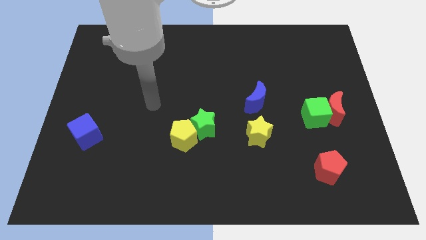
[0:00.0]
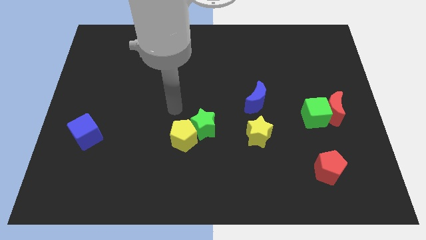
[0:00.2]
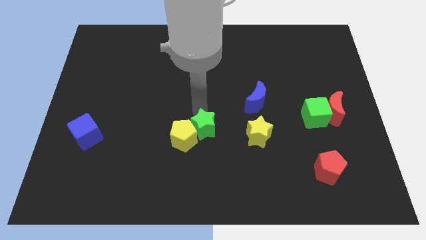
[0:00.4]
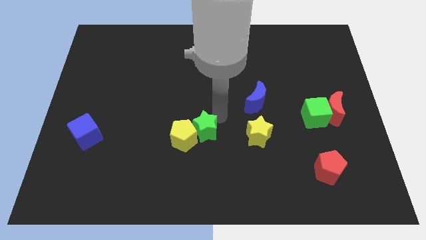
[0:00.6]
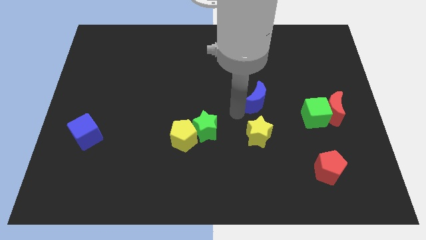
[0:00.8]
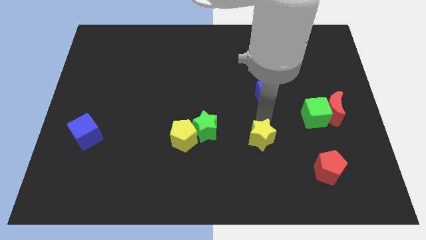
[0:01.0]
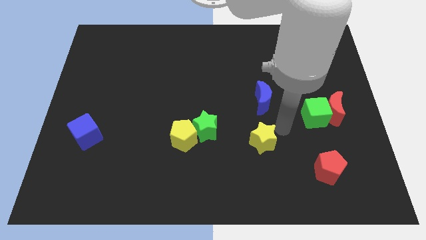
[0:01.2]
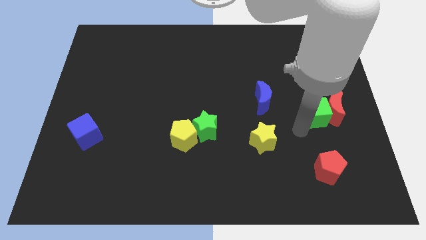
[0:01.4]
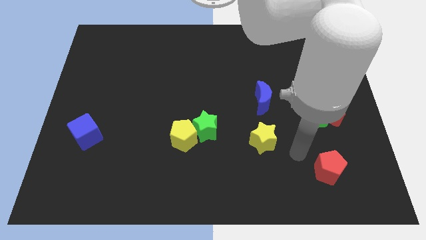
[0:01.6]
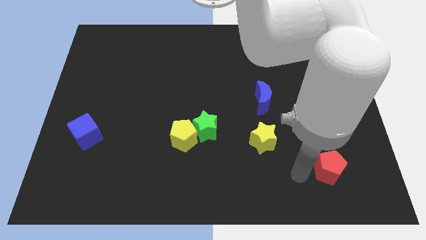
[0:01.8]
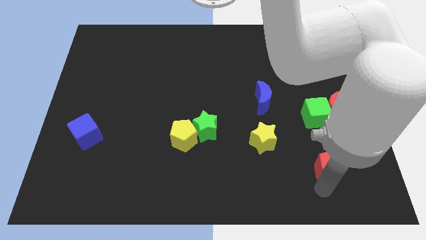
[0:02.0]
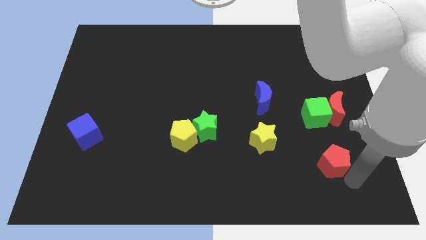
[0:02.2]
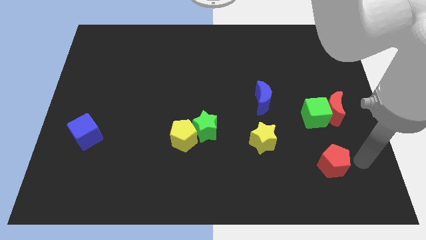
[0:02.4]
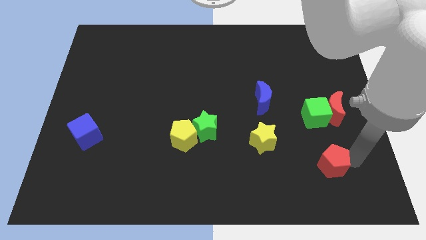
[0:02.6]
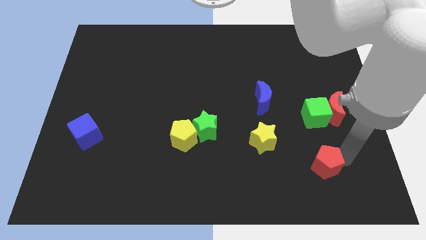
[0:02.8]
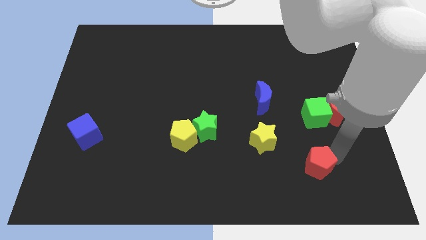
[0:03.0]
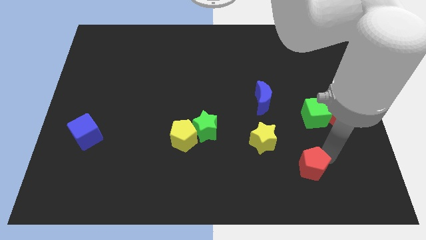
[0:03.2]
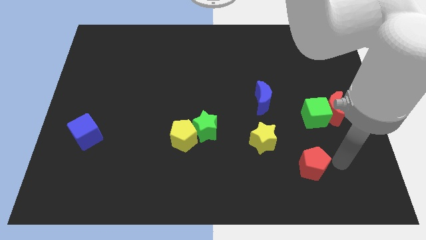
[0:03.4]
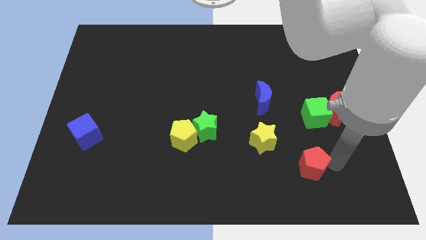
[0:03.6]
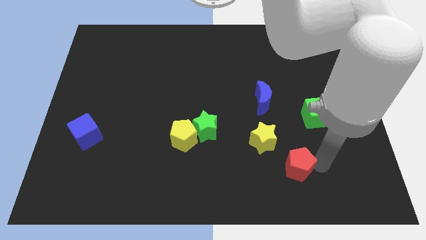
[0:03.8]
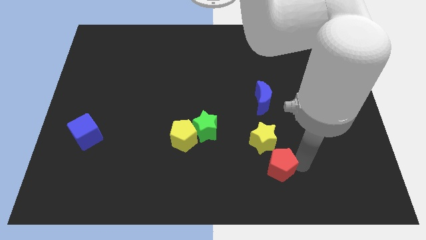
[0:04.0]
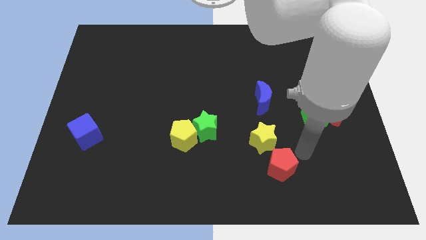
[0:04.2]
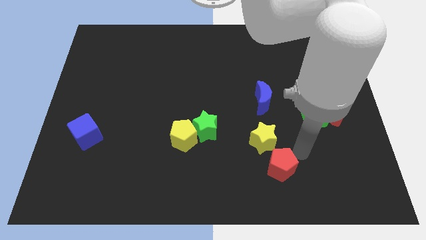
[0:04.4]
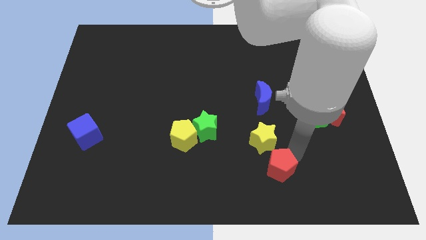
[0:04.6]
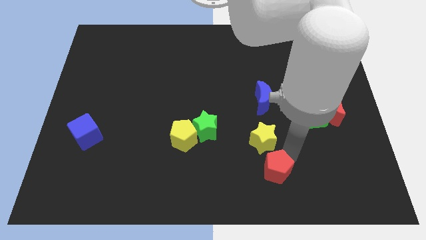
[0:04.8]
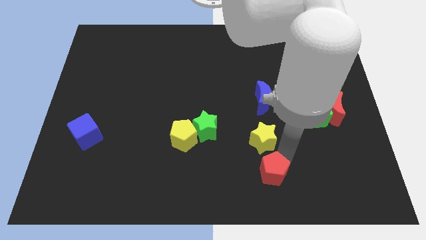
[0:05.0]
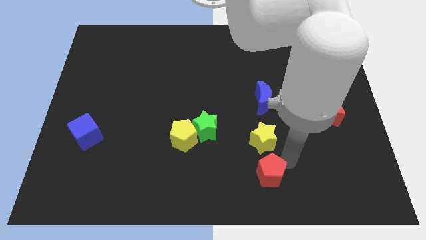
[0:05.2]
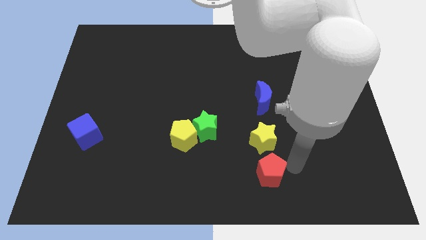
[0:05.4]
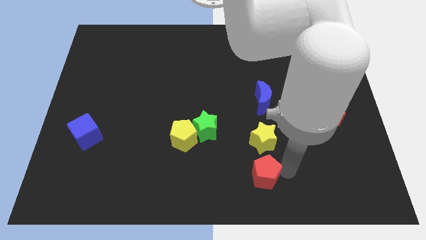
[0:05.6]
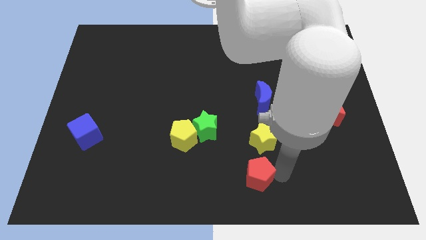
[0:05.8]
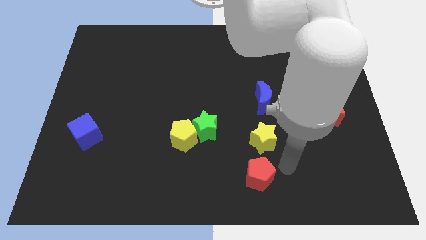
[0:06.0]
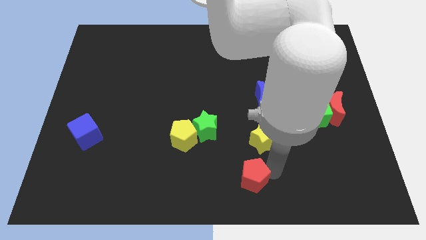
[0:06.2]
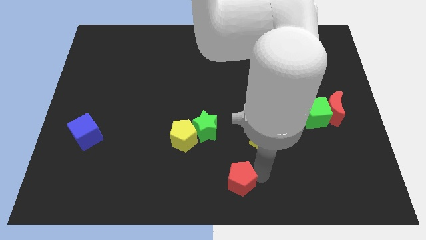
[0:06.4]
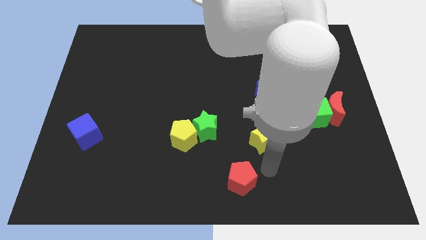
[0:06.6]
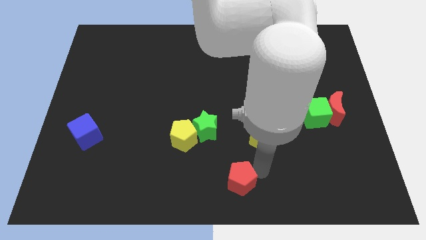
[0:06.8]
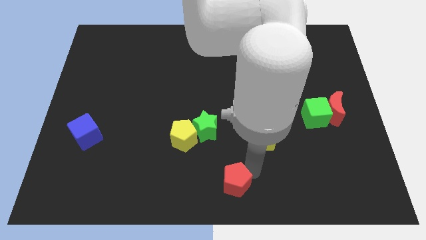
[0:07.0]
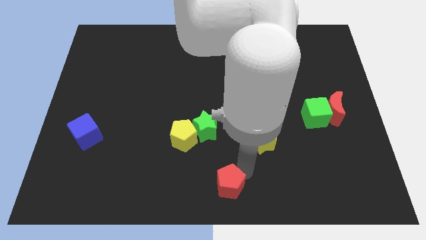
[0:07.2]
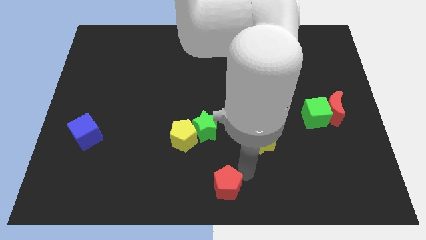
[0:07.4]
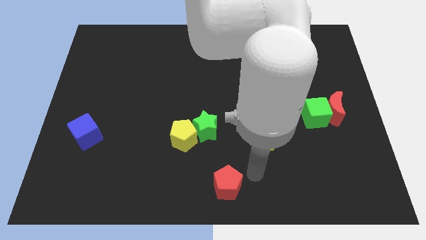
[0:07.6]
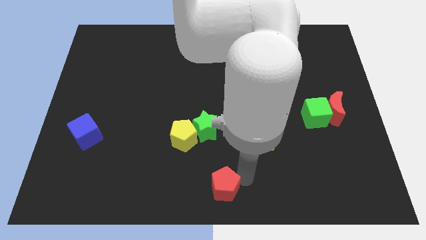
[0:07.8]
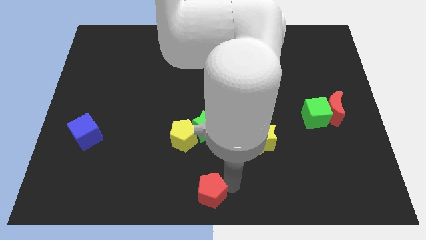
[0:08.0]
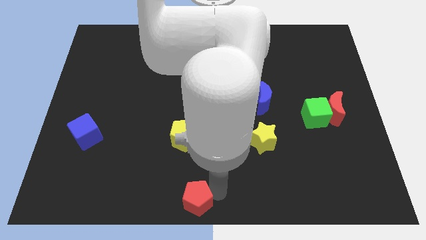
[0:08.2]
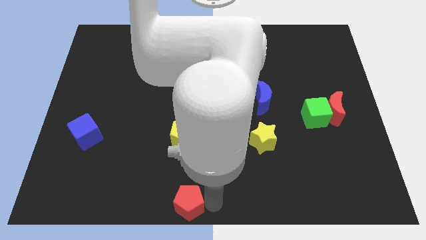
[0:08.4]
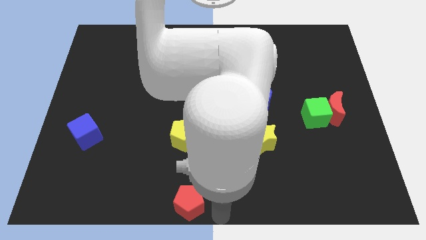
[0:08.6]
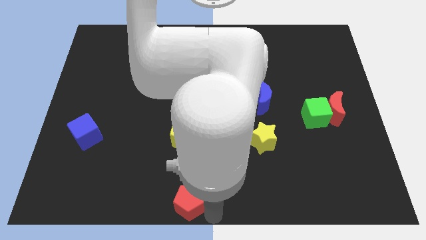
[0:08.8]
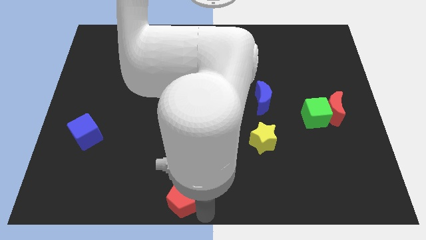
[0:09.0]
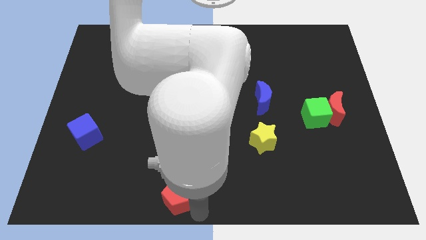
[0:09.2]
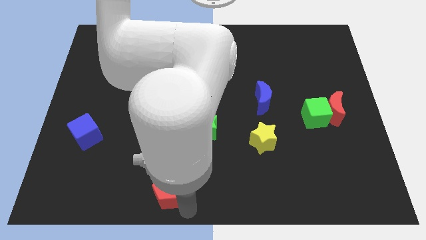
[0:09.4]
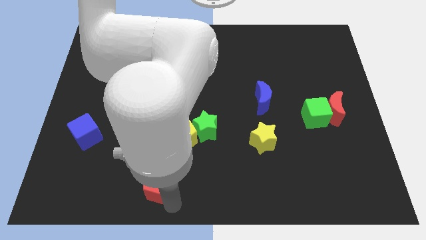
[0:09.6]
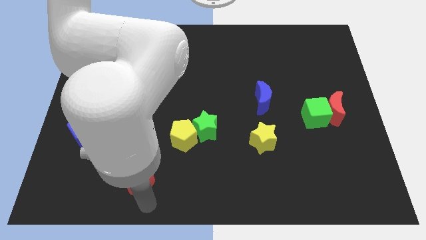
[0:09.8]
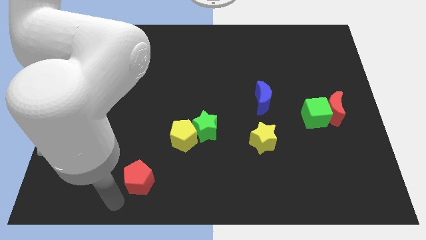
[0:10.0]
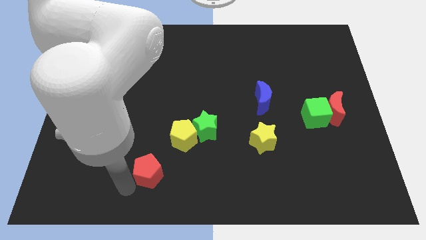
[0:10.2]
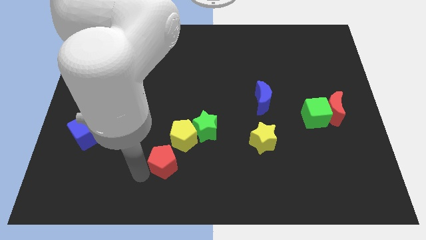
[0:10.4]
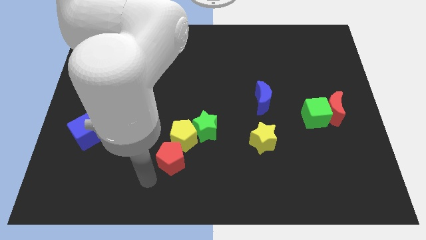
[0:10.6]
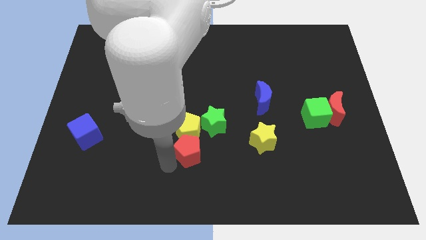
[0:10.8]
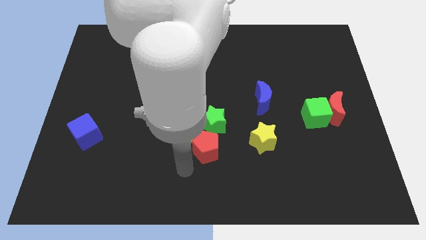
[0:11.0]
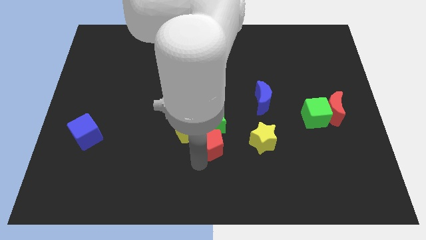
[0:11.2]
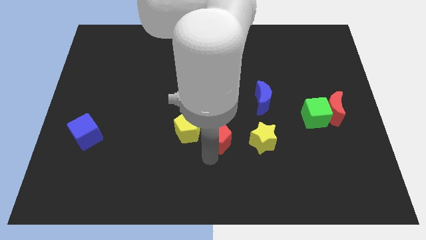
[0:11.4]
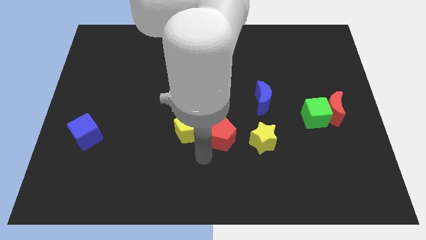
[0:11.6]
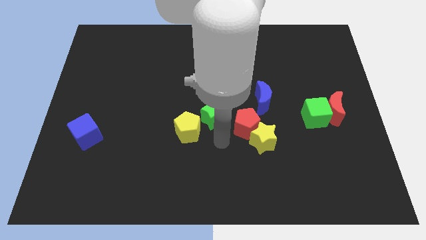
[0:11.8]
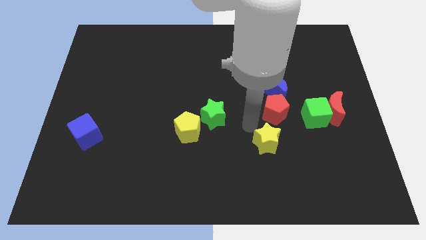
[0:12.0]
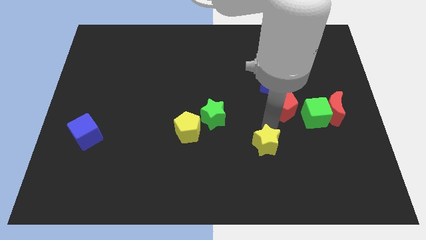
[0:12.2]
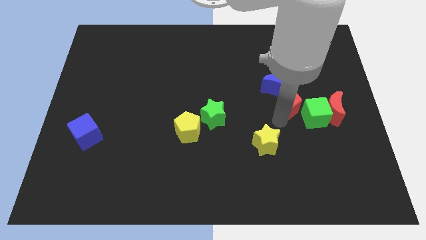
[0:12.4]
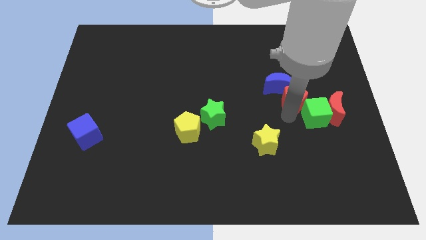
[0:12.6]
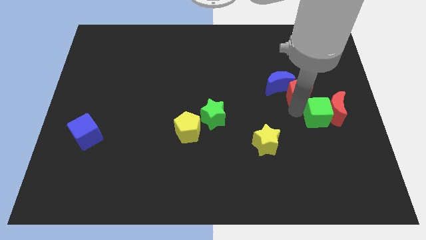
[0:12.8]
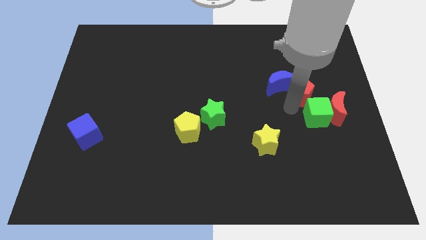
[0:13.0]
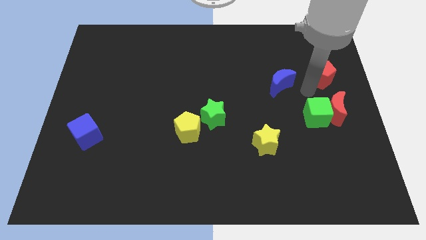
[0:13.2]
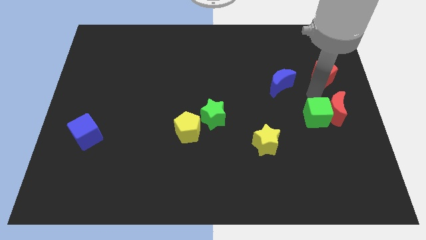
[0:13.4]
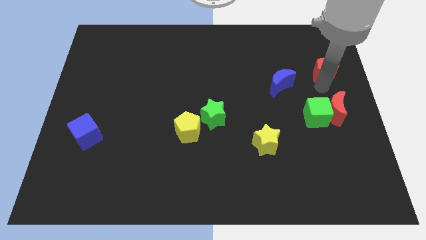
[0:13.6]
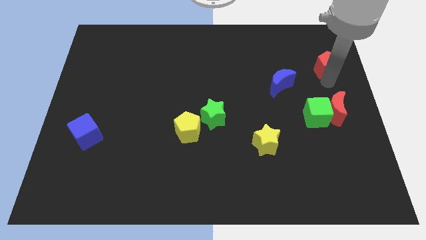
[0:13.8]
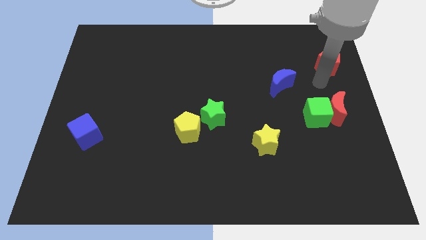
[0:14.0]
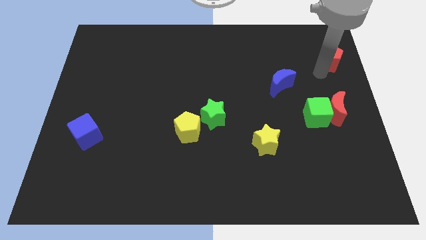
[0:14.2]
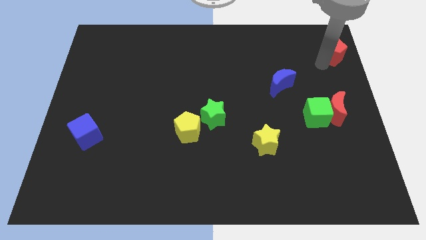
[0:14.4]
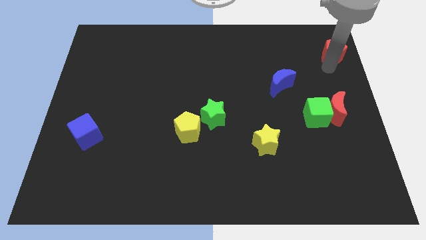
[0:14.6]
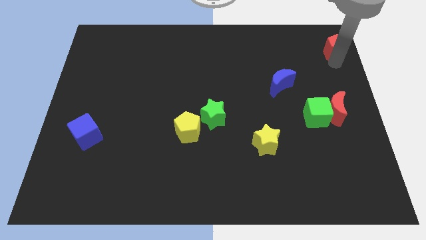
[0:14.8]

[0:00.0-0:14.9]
move the red pentagon to the top right corner

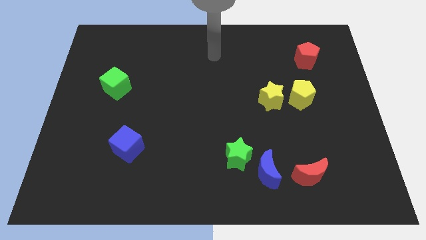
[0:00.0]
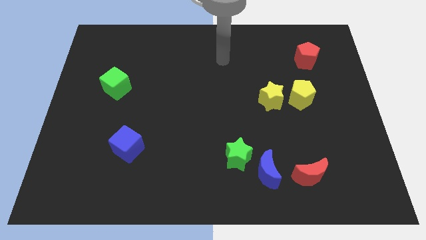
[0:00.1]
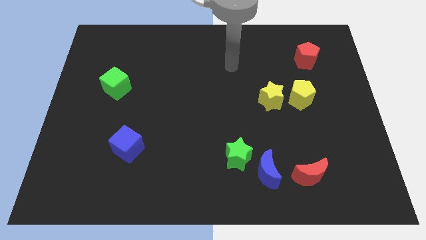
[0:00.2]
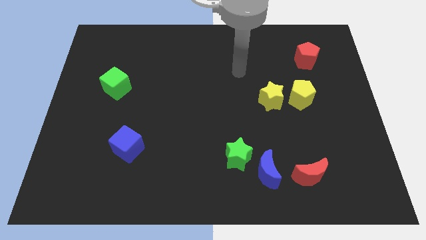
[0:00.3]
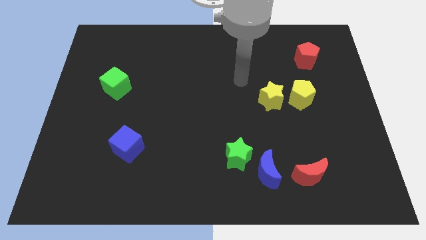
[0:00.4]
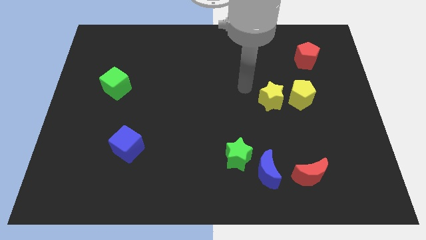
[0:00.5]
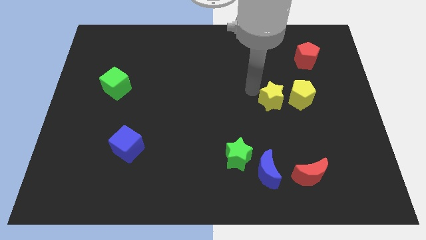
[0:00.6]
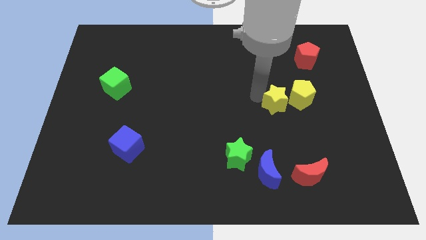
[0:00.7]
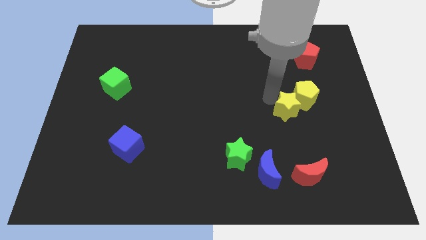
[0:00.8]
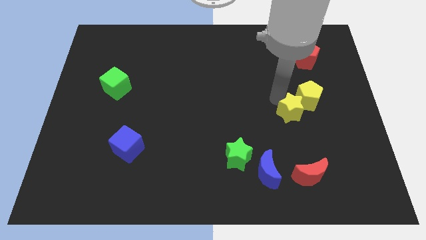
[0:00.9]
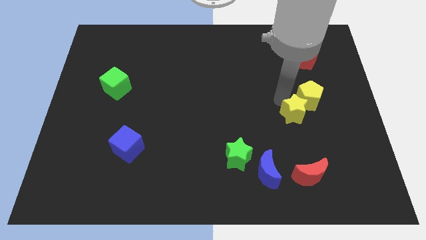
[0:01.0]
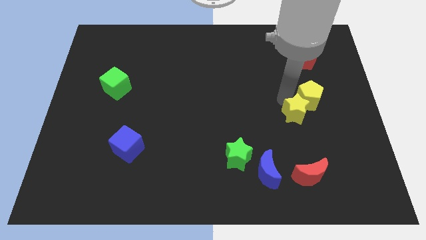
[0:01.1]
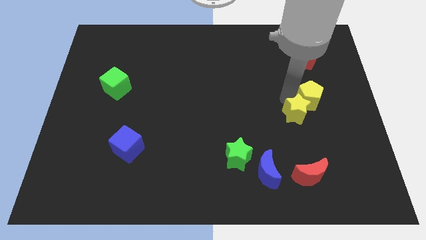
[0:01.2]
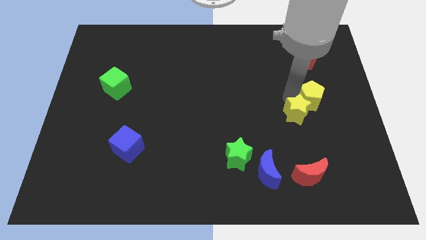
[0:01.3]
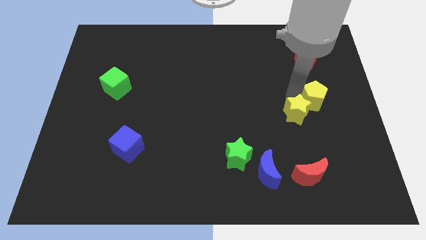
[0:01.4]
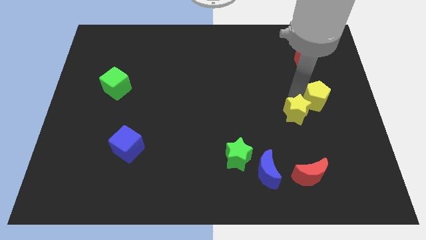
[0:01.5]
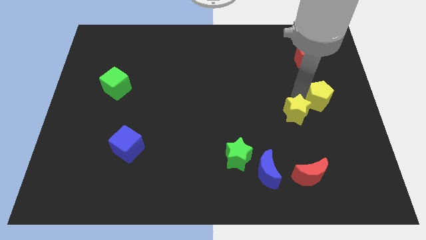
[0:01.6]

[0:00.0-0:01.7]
push the yellow pentagon to the center right
